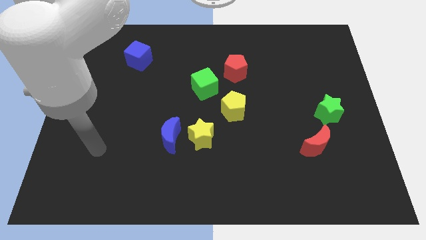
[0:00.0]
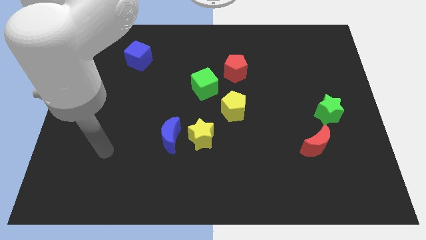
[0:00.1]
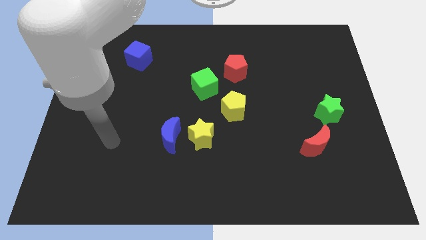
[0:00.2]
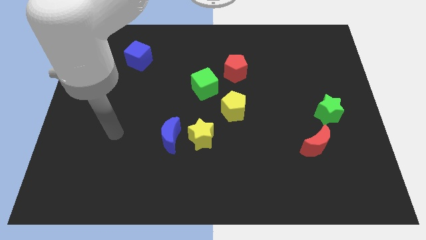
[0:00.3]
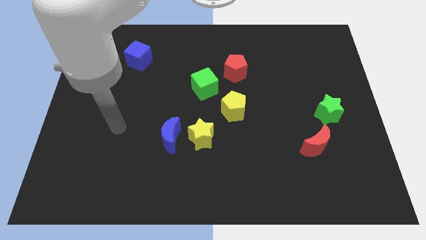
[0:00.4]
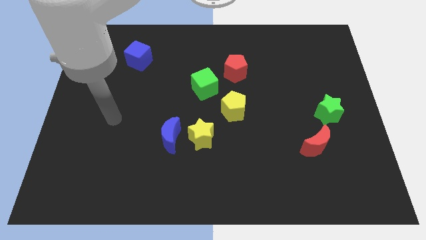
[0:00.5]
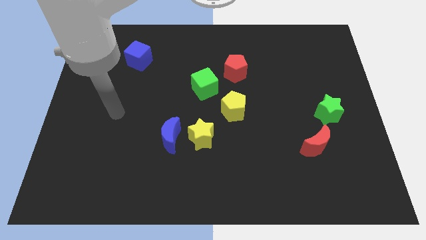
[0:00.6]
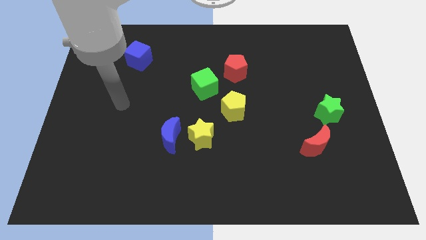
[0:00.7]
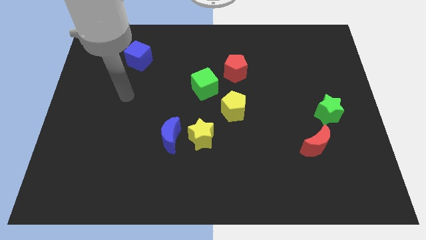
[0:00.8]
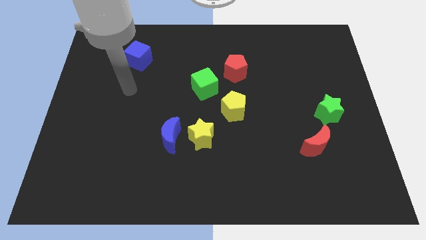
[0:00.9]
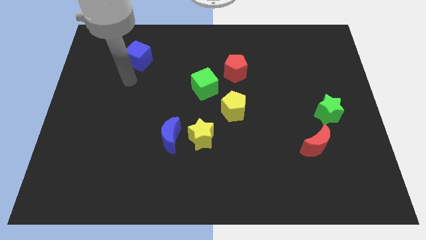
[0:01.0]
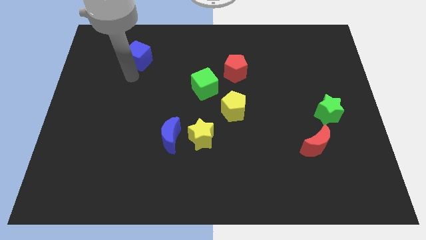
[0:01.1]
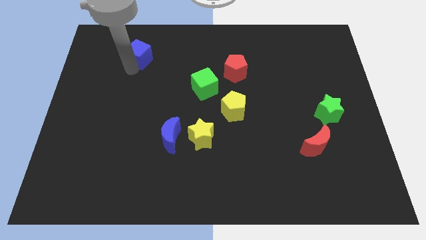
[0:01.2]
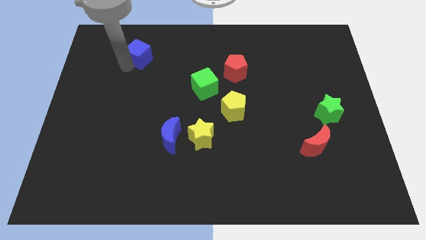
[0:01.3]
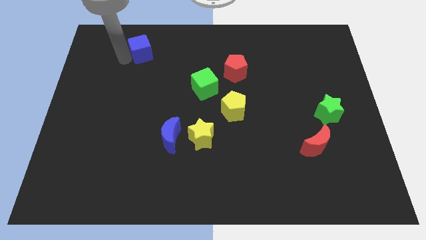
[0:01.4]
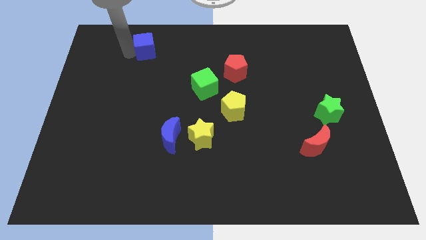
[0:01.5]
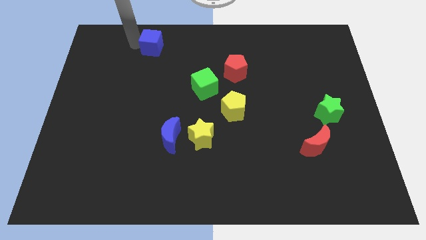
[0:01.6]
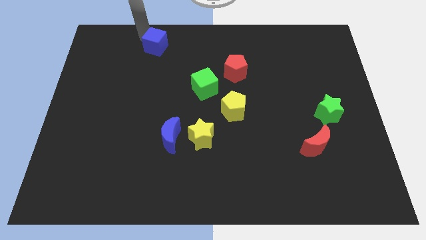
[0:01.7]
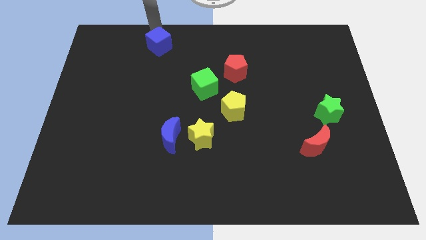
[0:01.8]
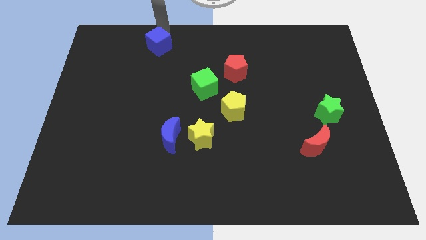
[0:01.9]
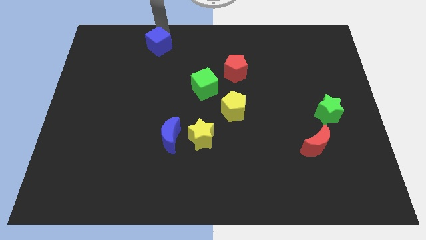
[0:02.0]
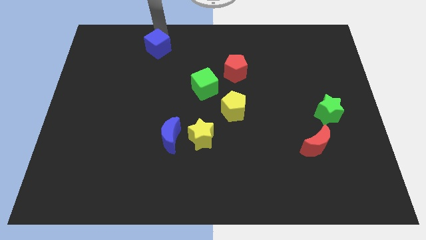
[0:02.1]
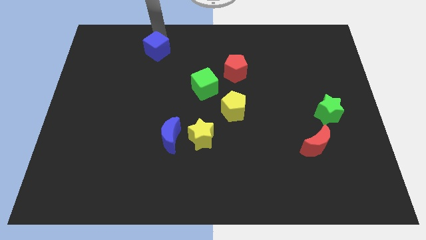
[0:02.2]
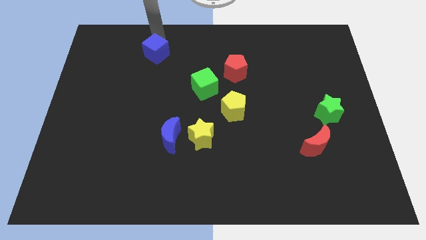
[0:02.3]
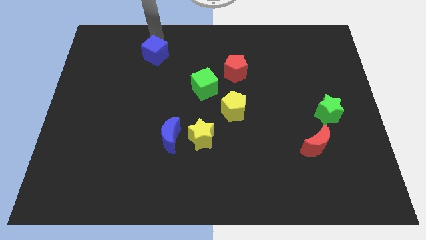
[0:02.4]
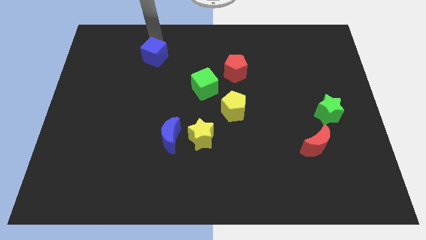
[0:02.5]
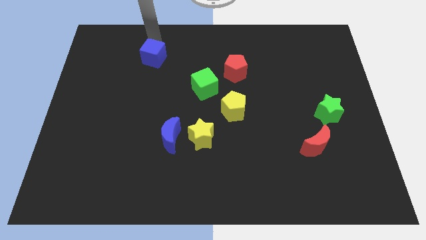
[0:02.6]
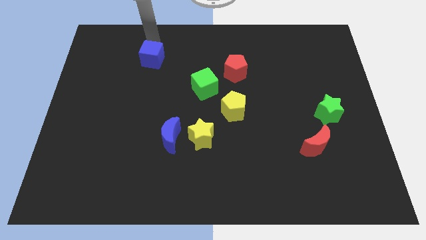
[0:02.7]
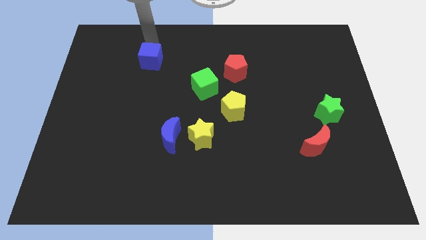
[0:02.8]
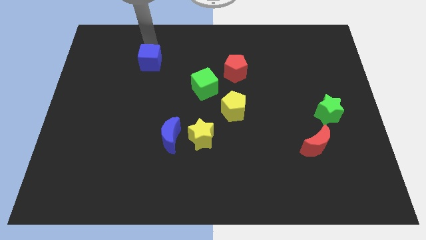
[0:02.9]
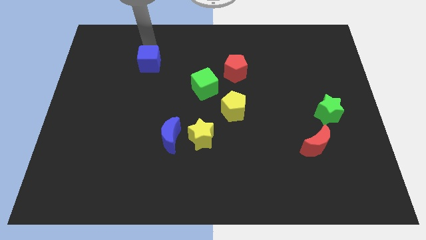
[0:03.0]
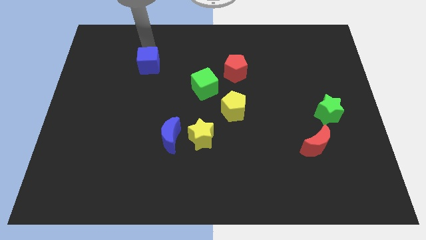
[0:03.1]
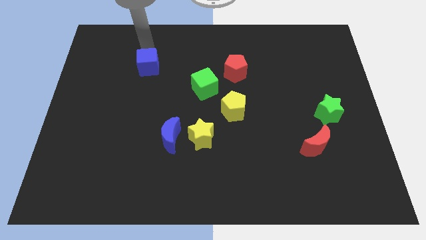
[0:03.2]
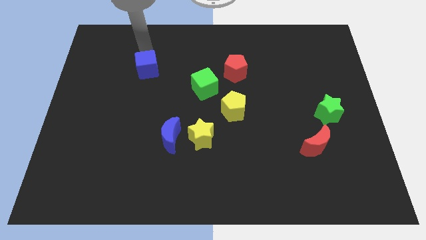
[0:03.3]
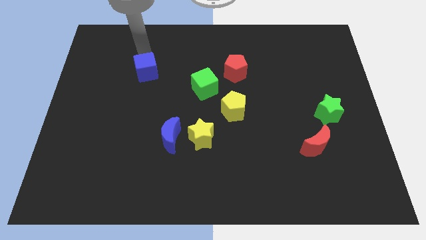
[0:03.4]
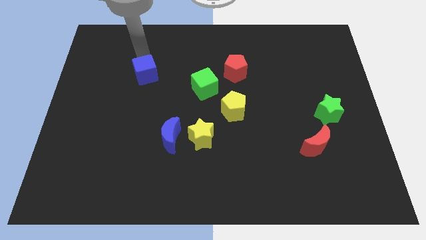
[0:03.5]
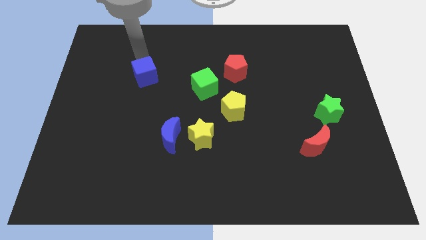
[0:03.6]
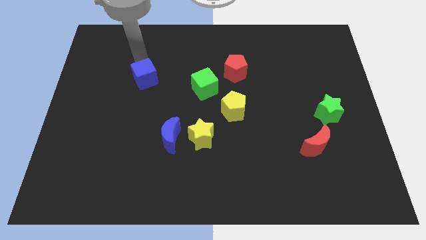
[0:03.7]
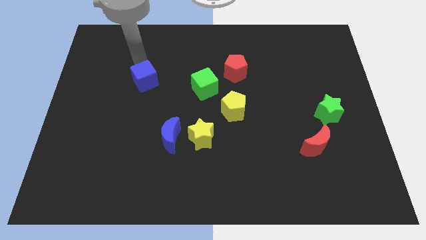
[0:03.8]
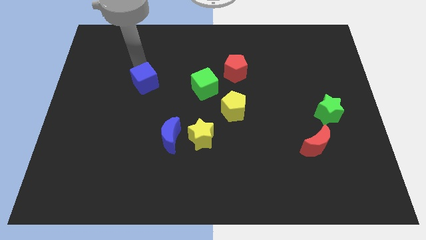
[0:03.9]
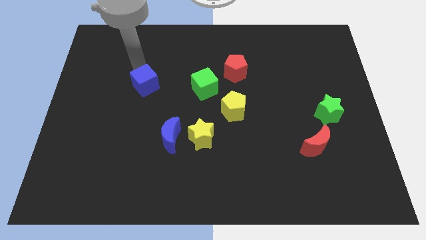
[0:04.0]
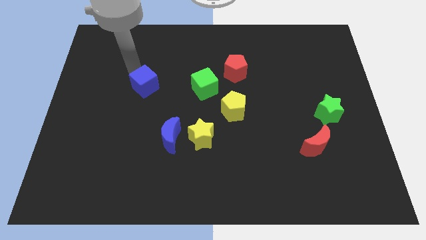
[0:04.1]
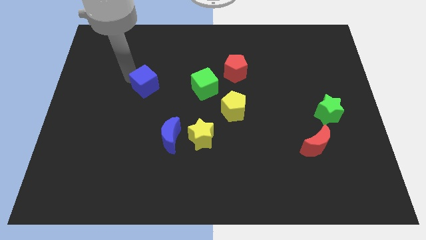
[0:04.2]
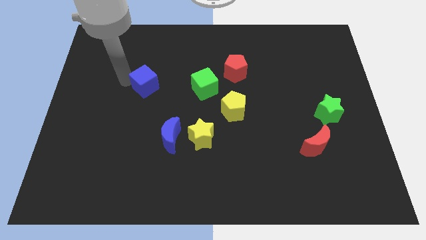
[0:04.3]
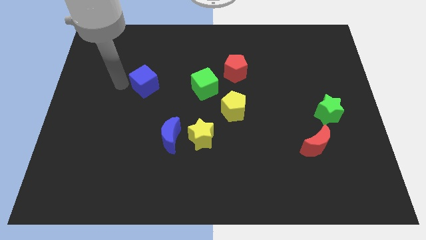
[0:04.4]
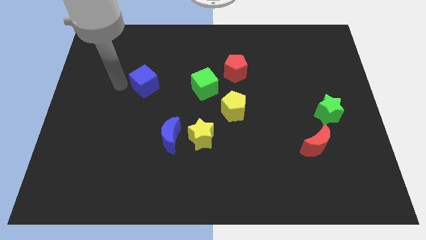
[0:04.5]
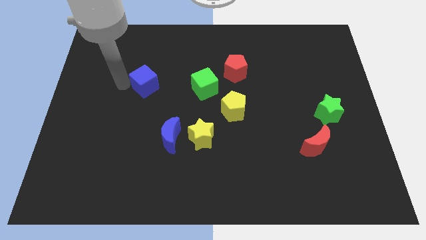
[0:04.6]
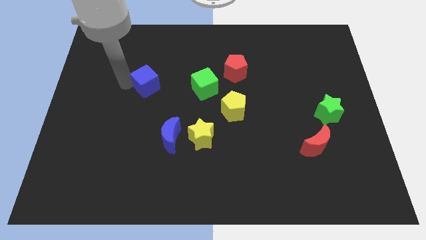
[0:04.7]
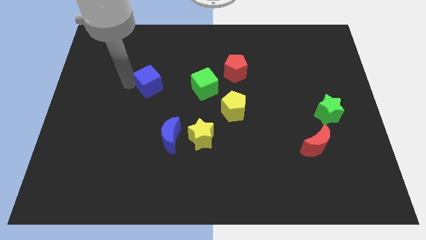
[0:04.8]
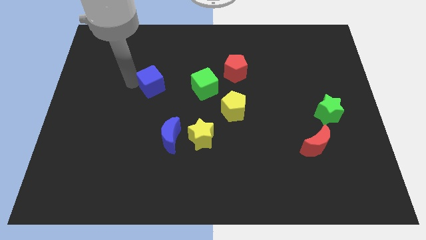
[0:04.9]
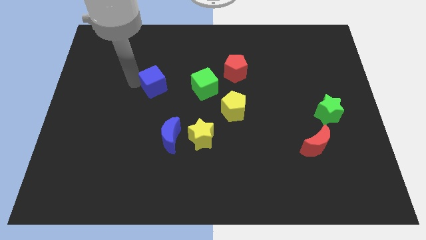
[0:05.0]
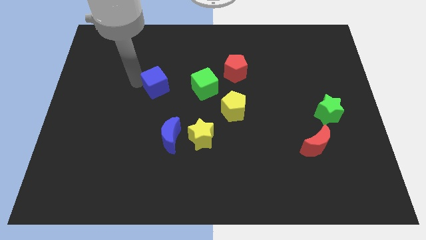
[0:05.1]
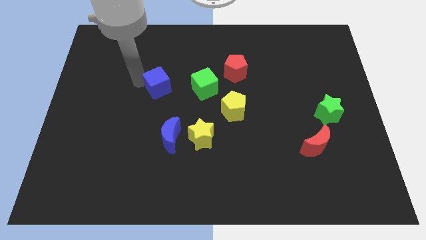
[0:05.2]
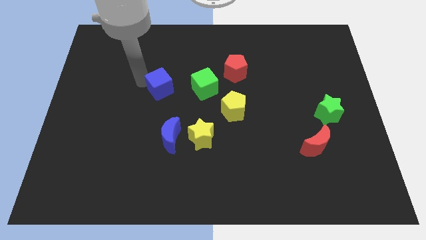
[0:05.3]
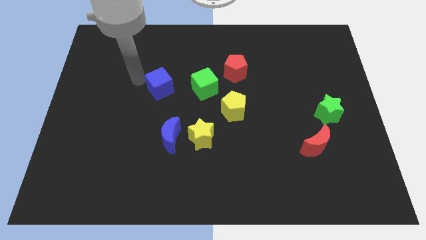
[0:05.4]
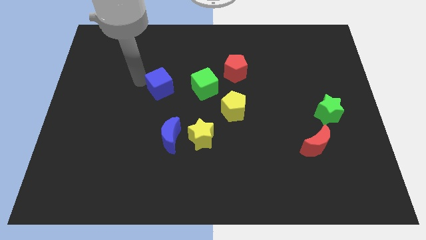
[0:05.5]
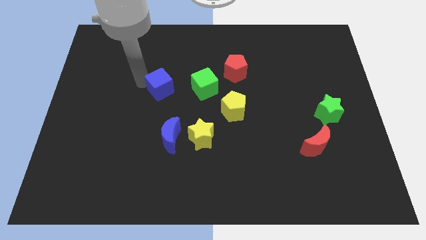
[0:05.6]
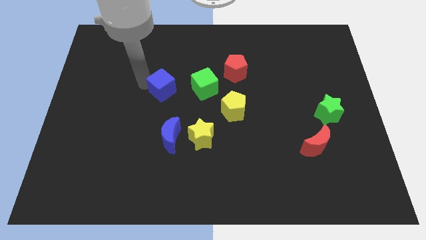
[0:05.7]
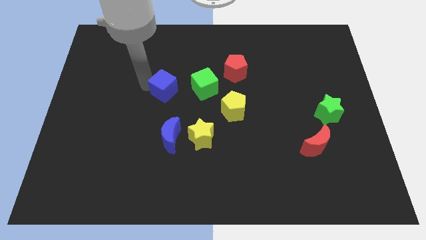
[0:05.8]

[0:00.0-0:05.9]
put the blue cube to the middle of the board
